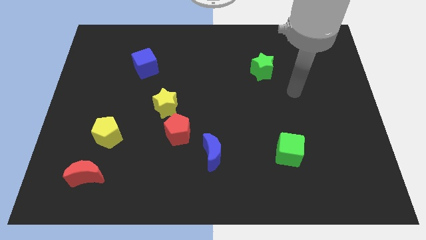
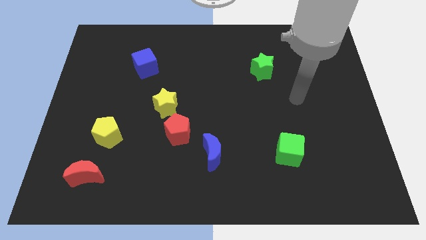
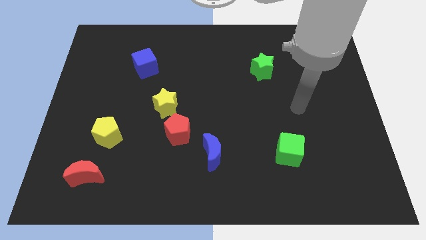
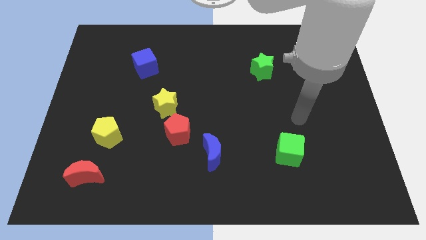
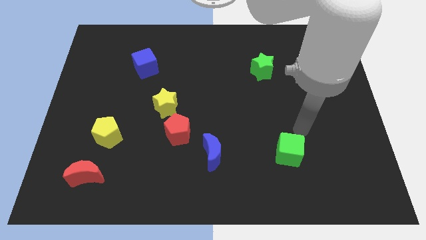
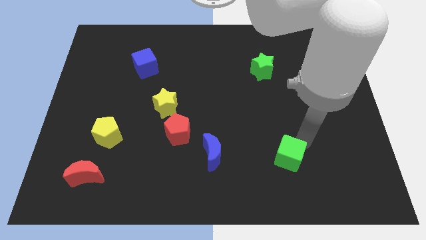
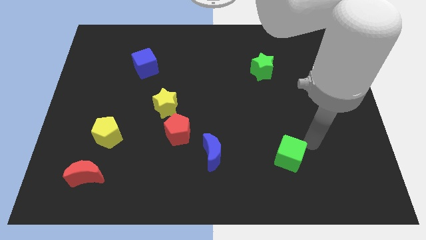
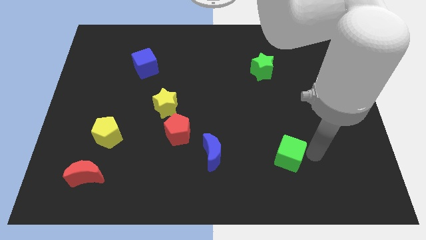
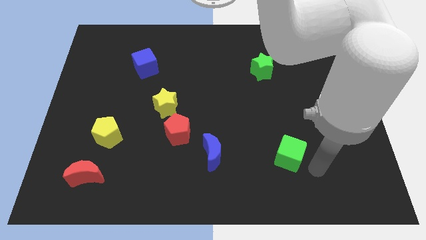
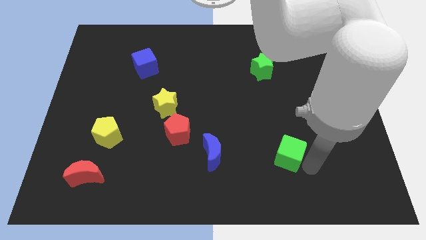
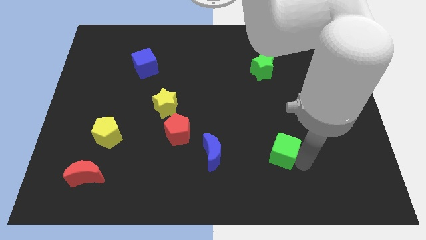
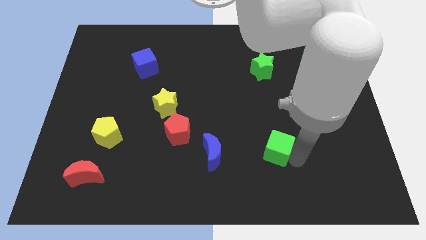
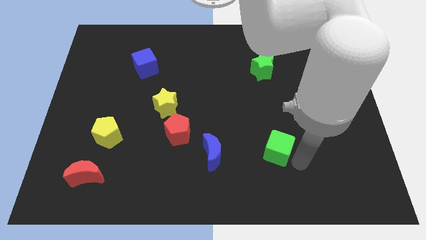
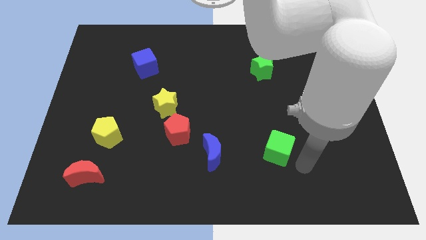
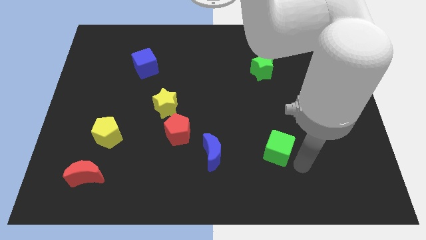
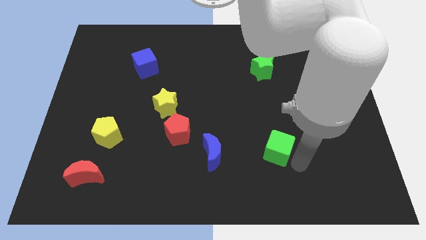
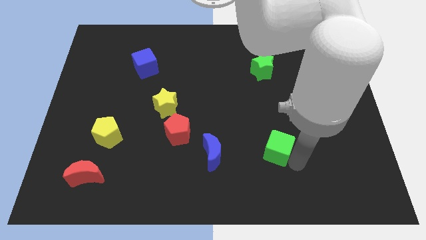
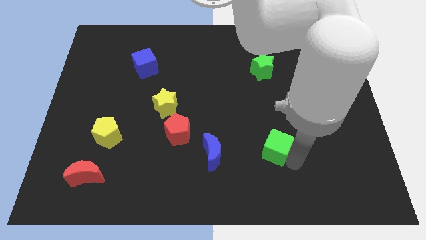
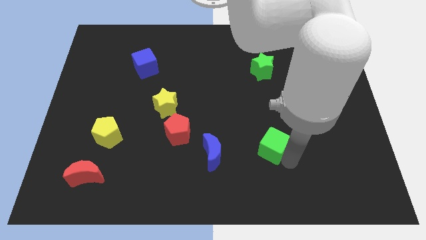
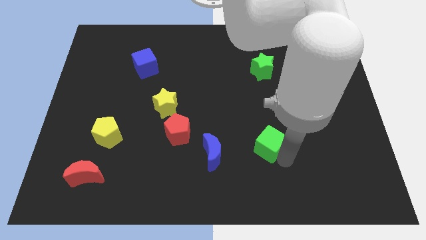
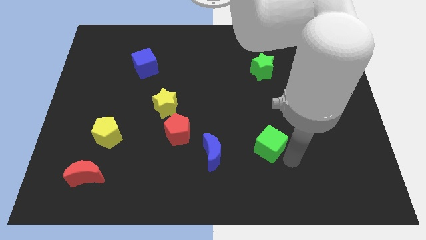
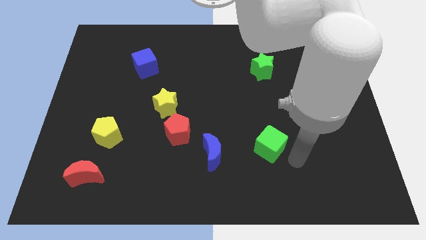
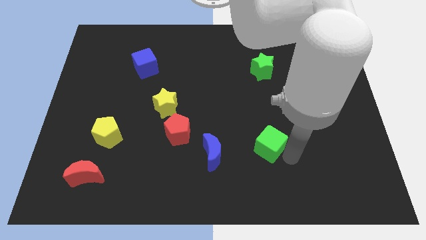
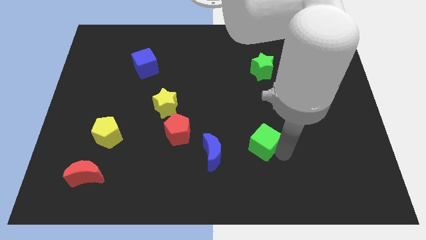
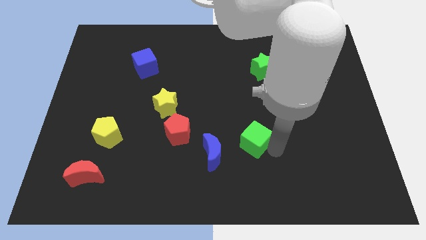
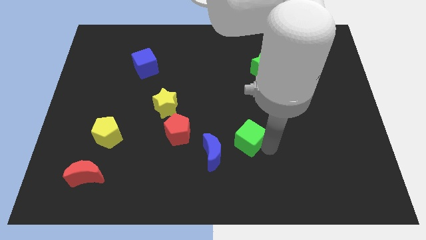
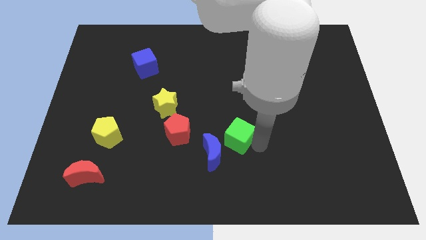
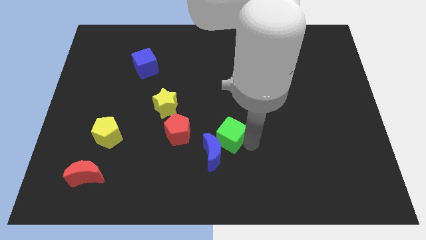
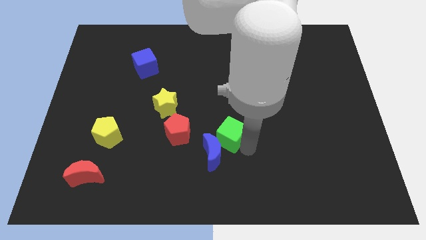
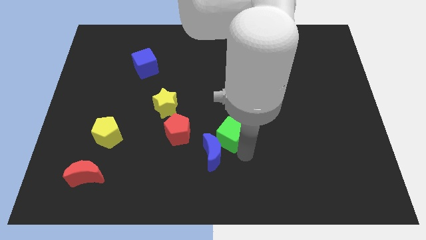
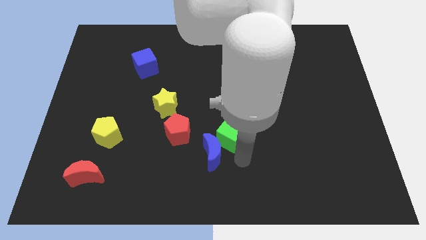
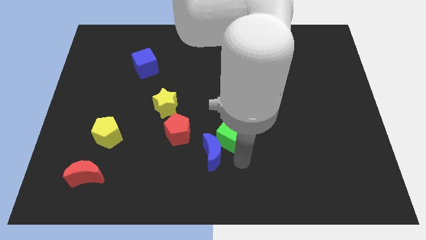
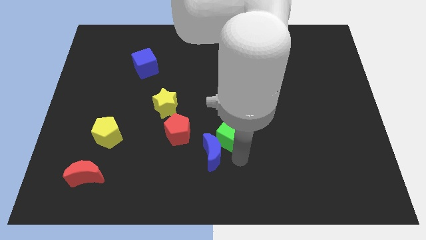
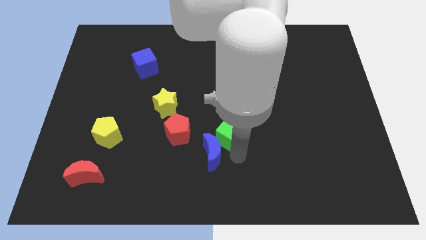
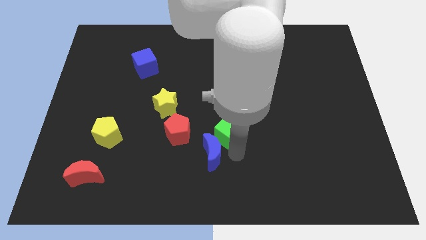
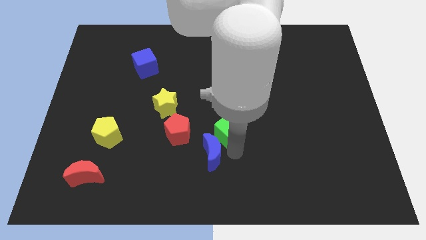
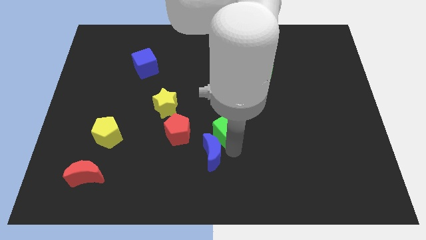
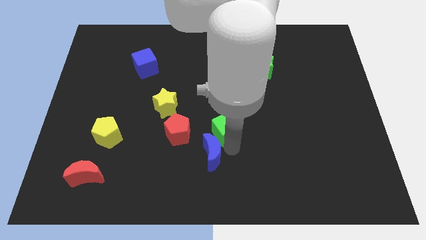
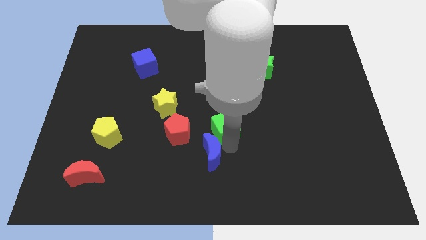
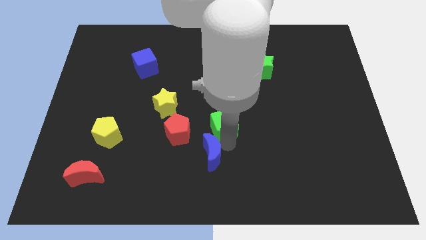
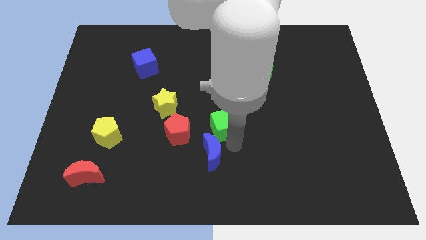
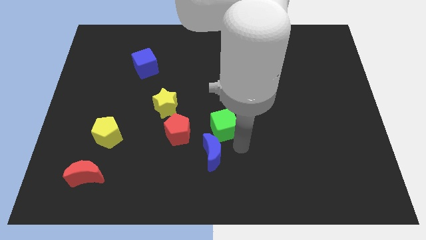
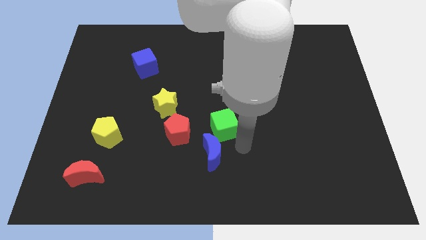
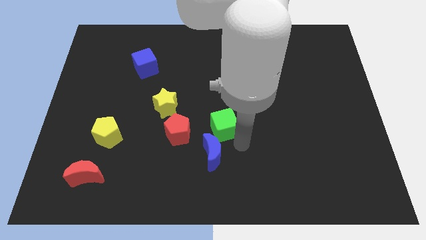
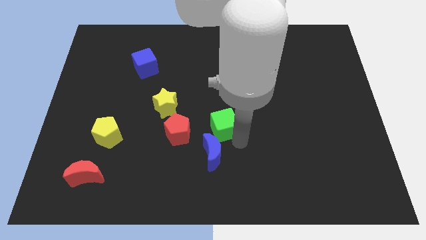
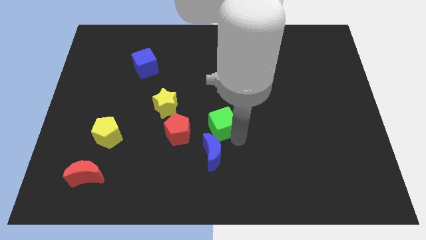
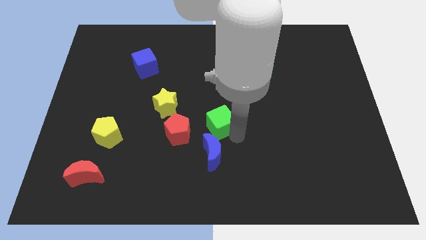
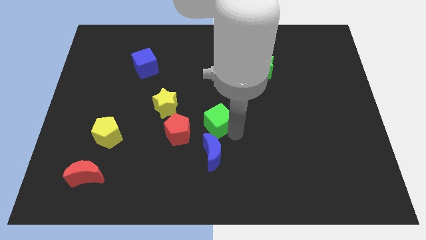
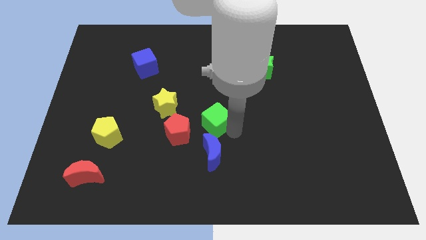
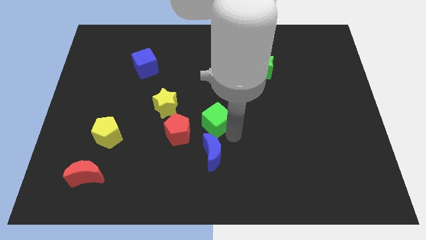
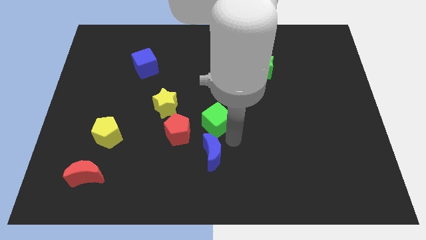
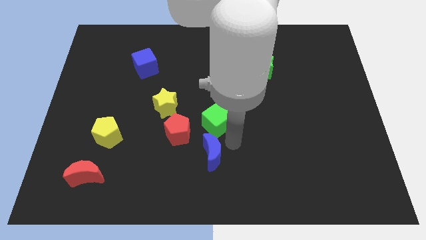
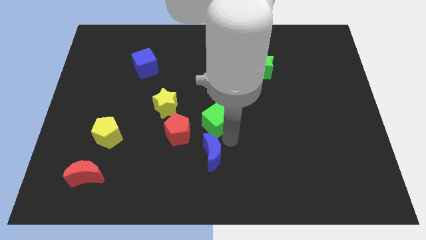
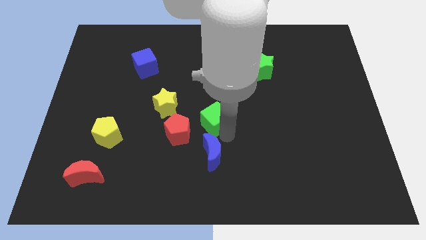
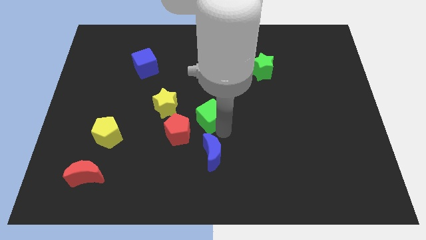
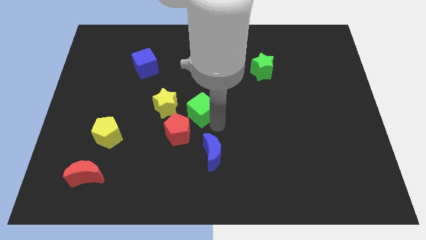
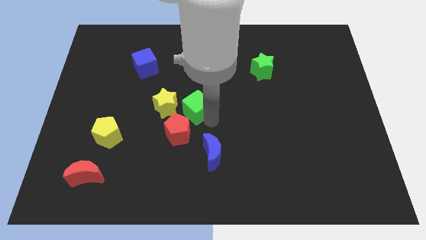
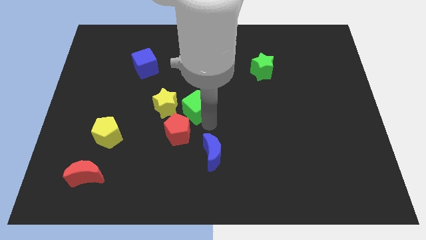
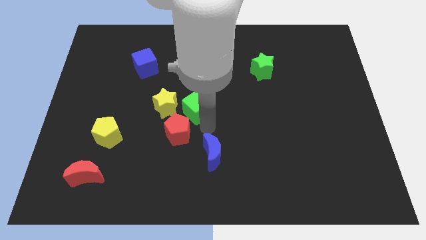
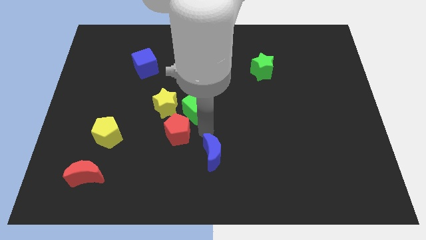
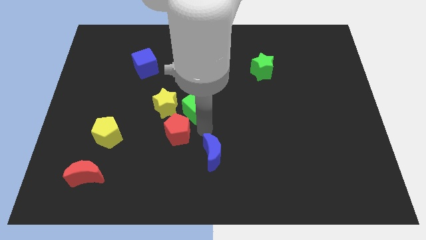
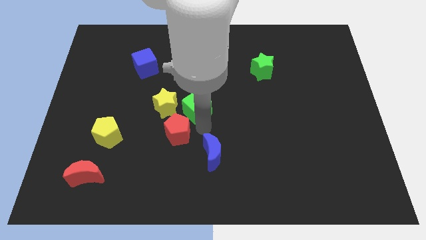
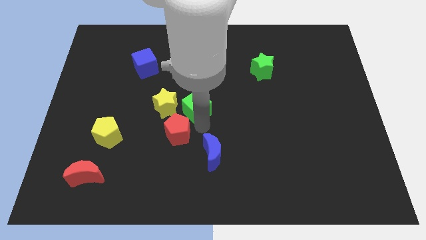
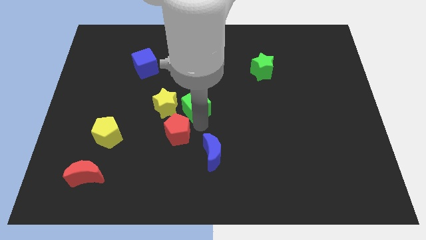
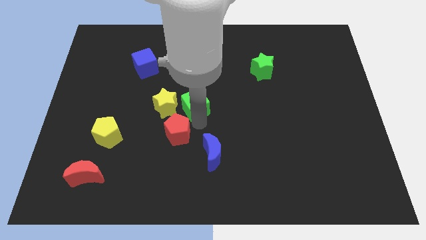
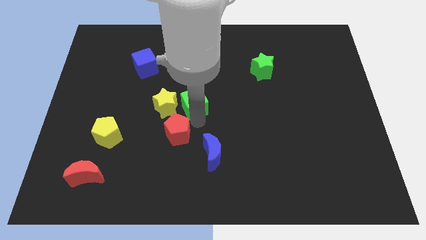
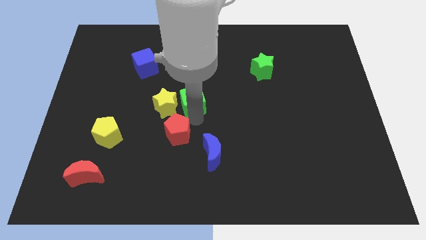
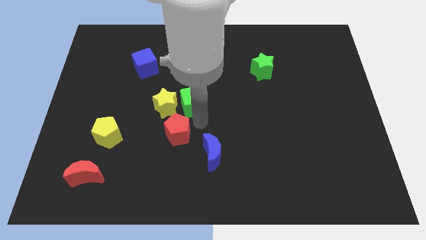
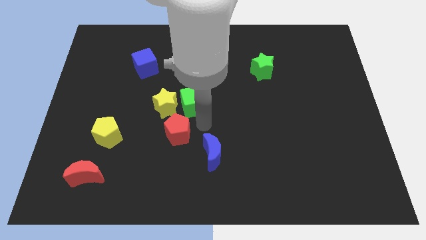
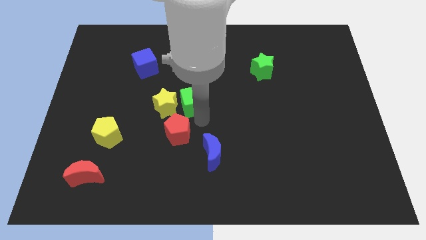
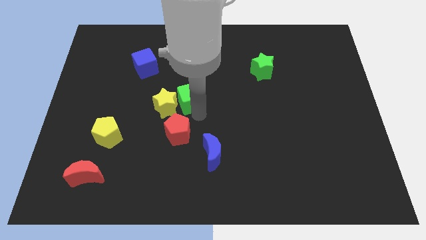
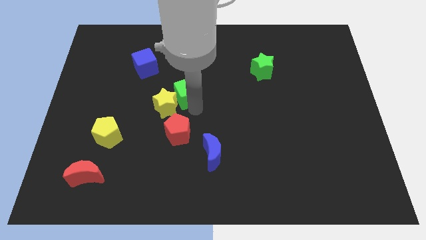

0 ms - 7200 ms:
push the green cube to the top of the yellow star
